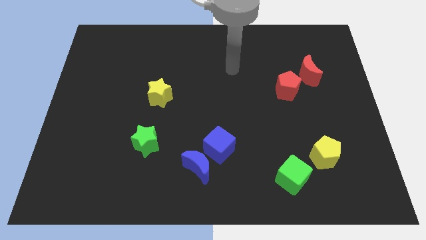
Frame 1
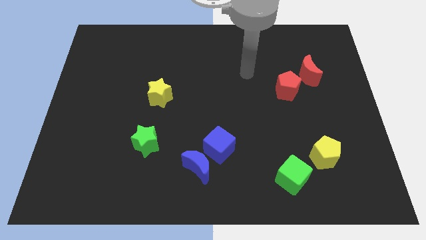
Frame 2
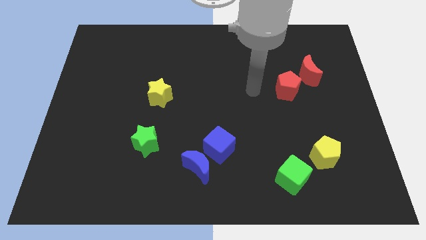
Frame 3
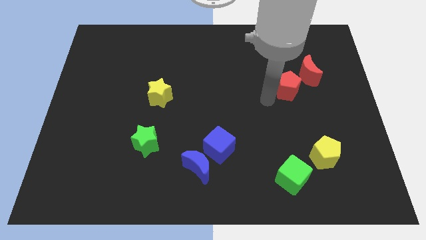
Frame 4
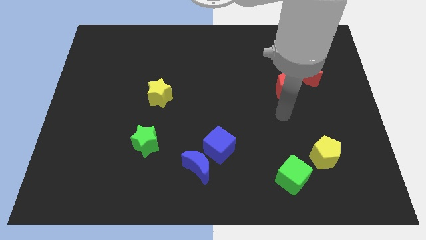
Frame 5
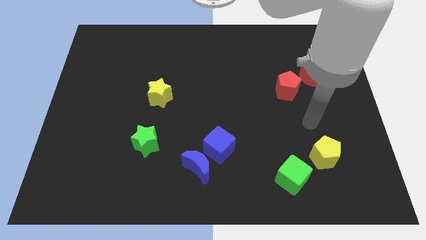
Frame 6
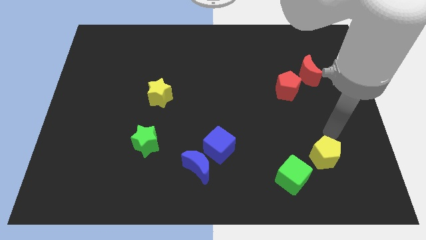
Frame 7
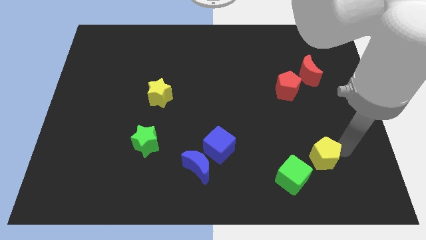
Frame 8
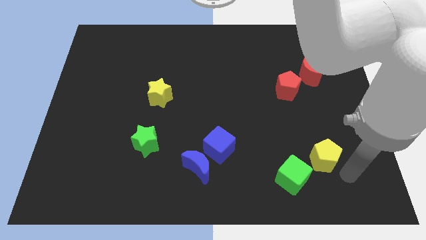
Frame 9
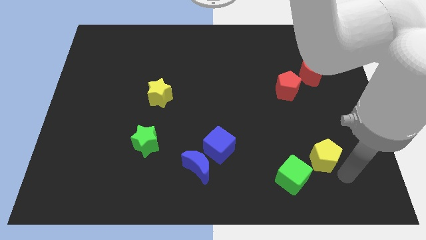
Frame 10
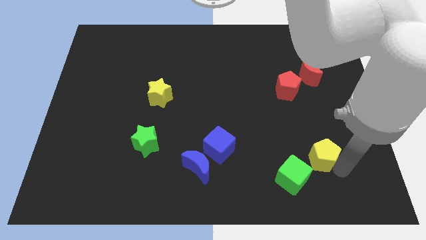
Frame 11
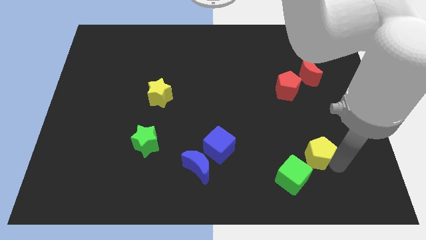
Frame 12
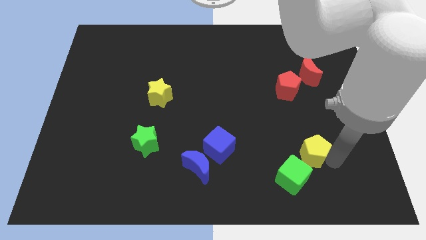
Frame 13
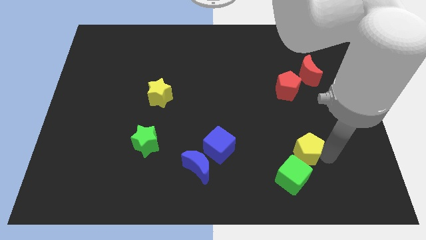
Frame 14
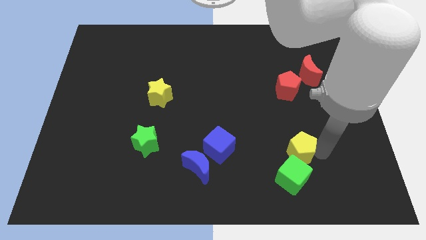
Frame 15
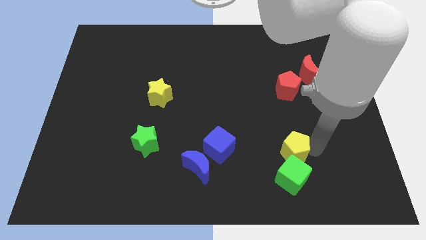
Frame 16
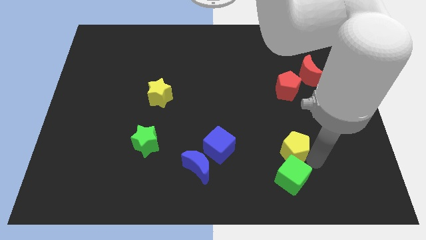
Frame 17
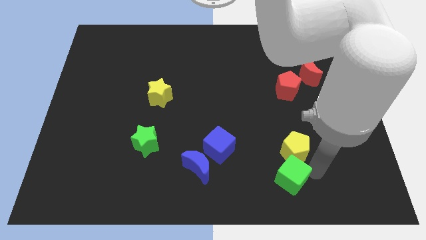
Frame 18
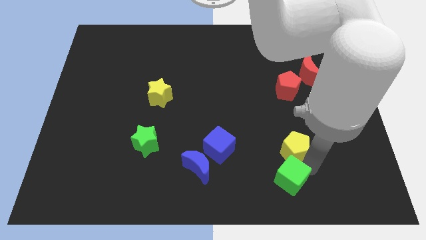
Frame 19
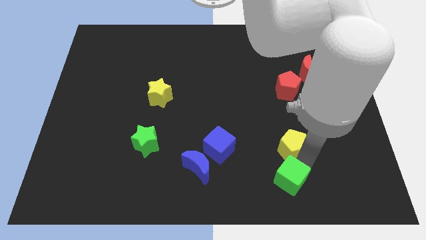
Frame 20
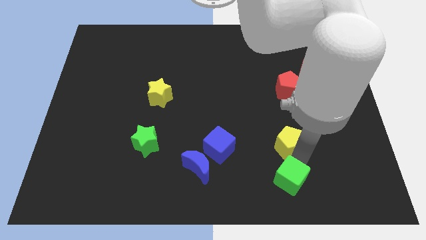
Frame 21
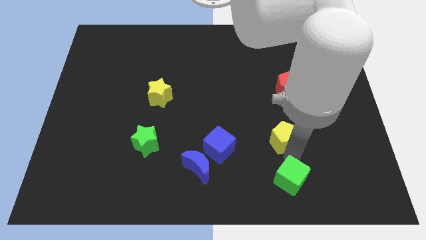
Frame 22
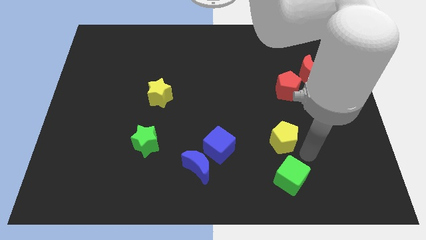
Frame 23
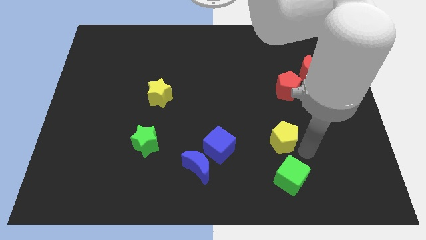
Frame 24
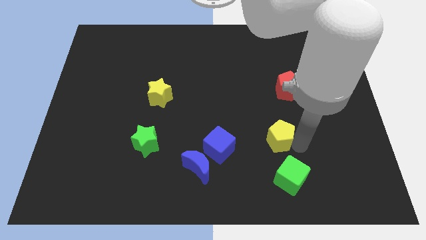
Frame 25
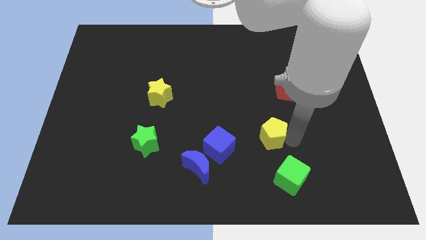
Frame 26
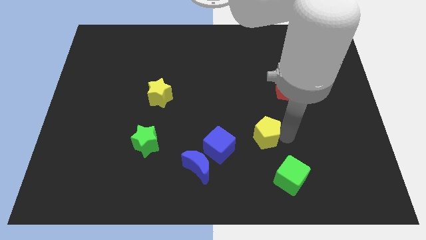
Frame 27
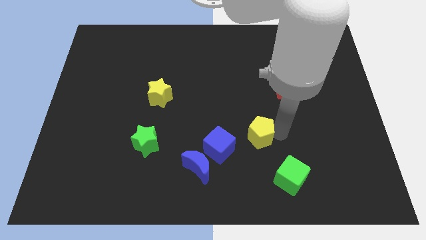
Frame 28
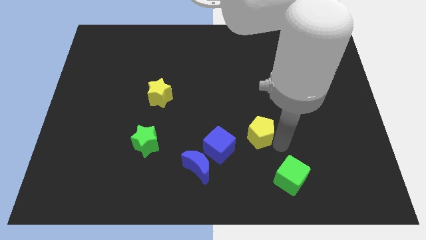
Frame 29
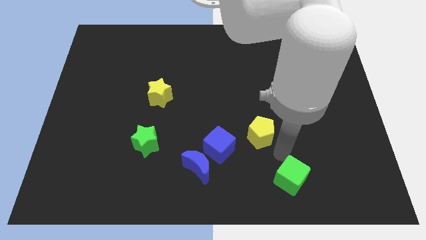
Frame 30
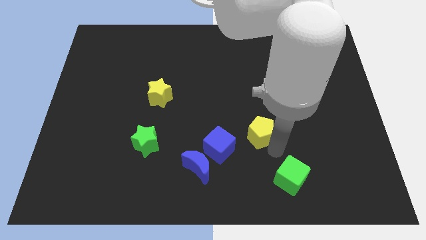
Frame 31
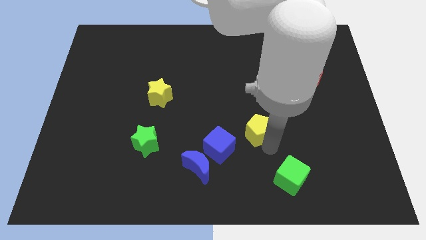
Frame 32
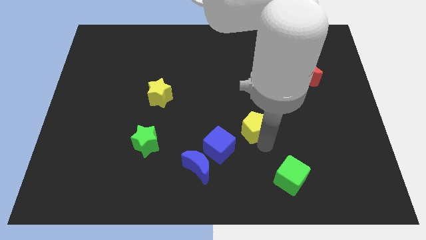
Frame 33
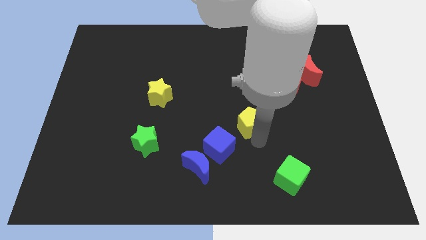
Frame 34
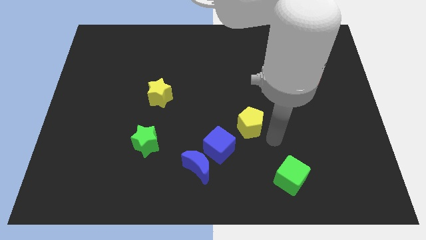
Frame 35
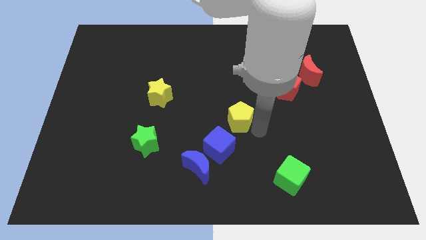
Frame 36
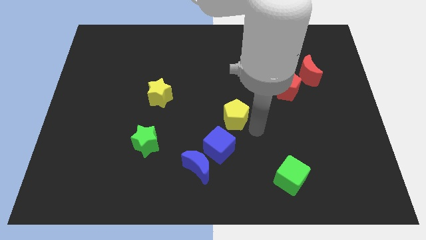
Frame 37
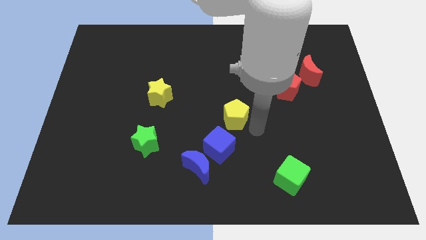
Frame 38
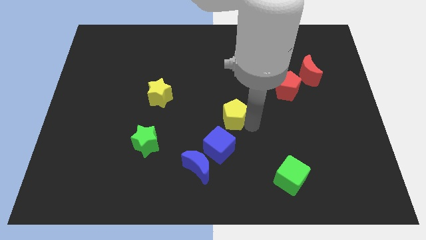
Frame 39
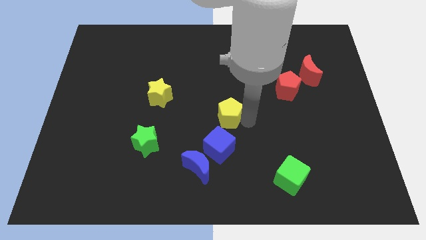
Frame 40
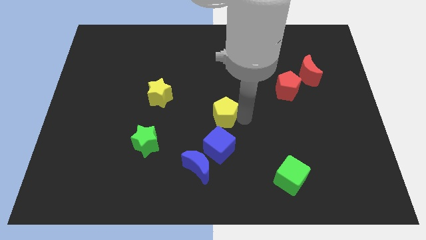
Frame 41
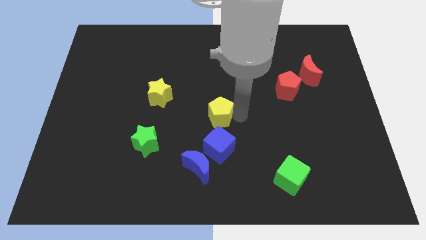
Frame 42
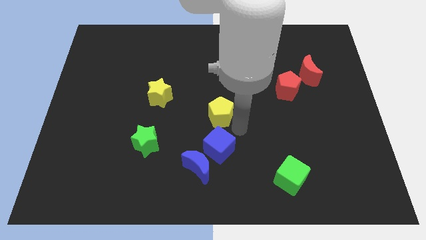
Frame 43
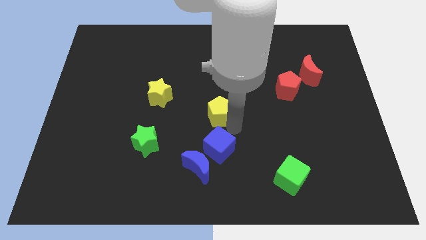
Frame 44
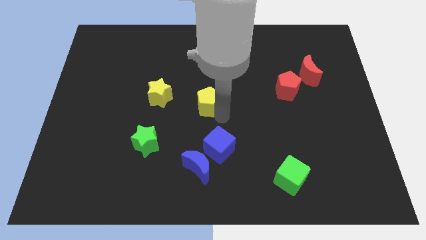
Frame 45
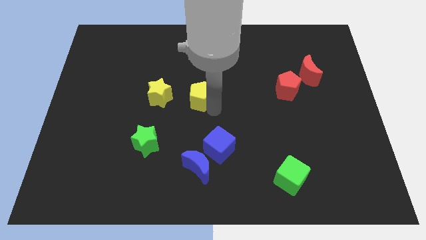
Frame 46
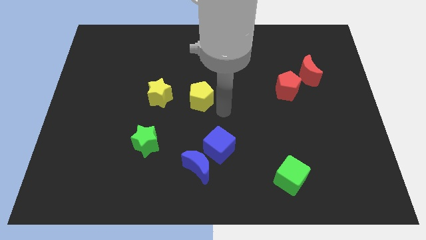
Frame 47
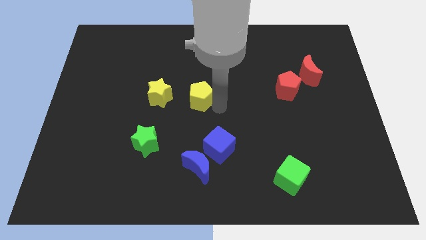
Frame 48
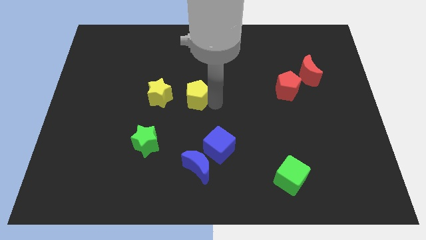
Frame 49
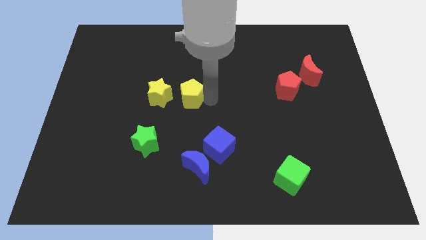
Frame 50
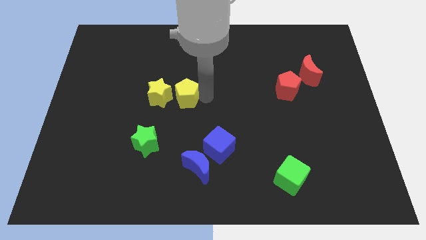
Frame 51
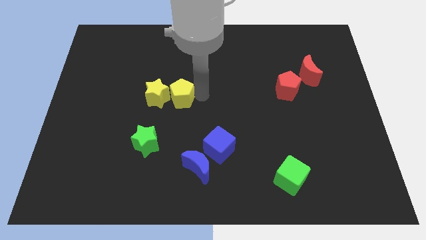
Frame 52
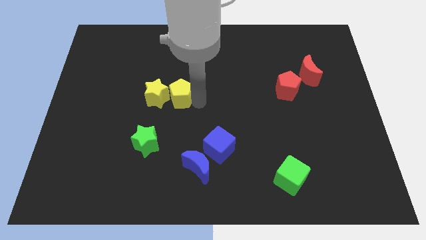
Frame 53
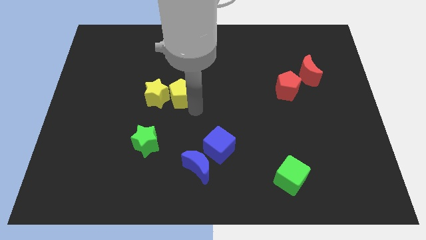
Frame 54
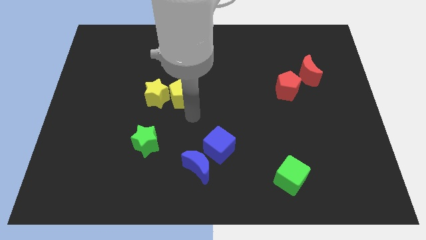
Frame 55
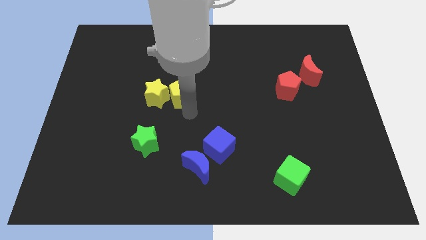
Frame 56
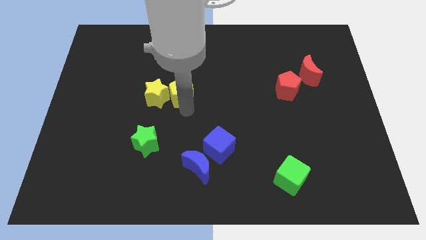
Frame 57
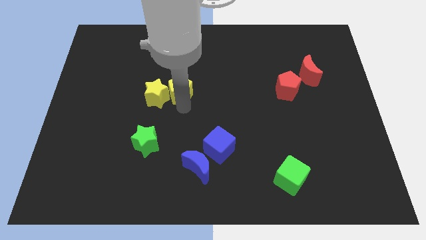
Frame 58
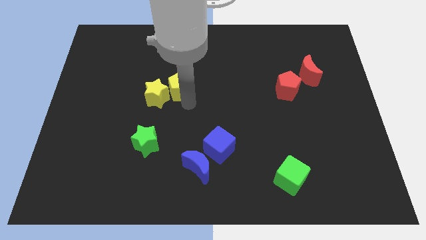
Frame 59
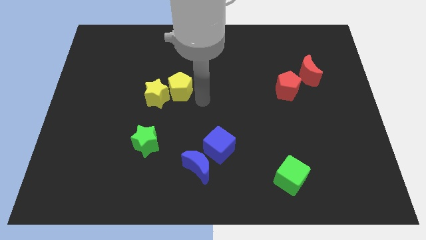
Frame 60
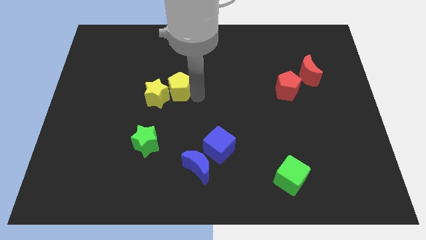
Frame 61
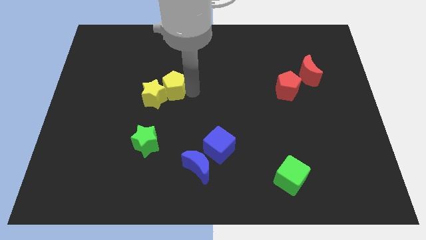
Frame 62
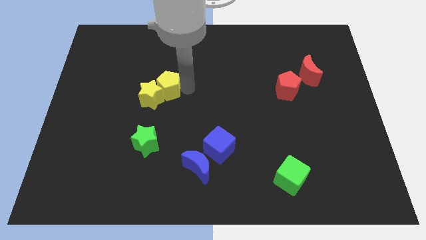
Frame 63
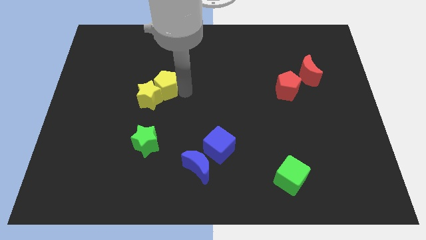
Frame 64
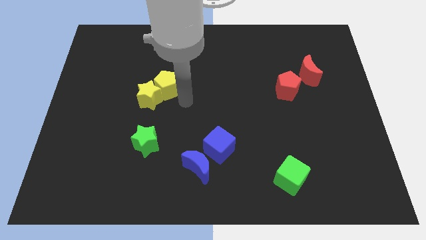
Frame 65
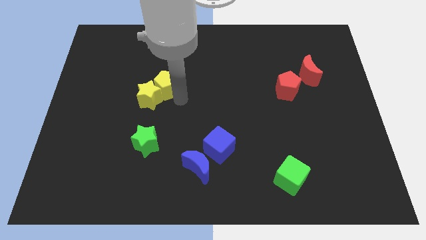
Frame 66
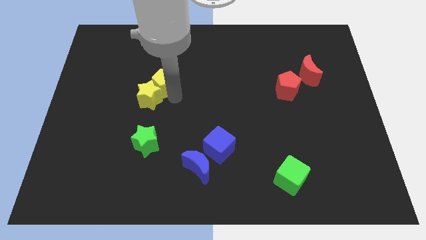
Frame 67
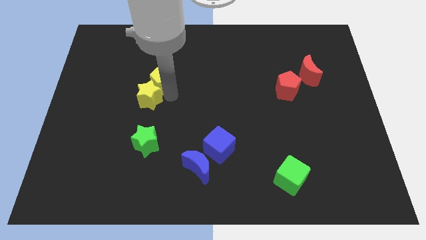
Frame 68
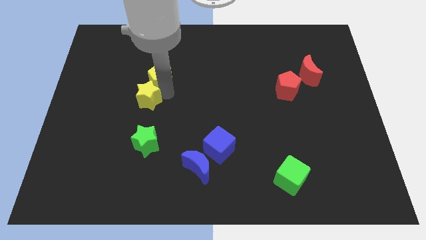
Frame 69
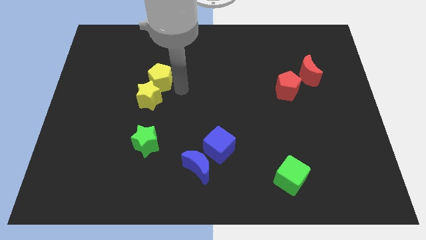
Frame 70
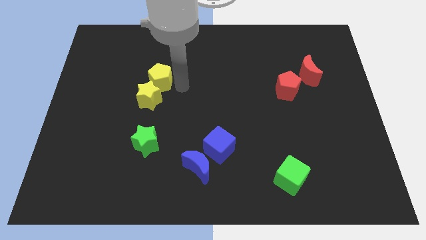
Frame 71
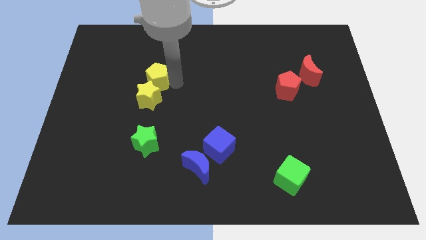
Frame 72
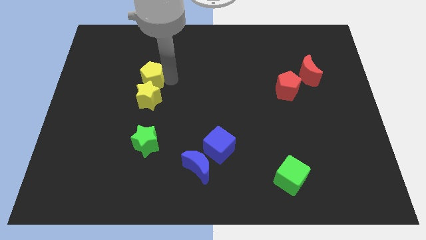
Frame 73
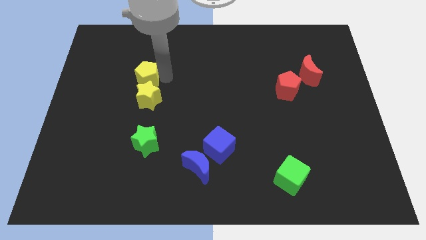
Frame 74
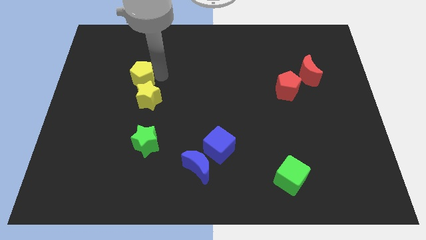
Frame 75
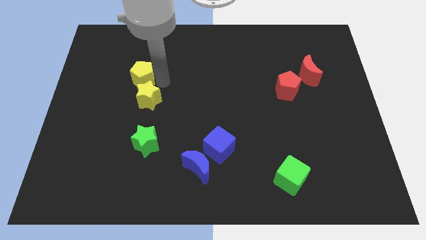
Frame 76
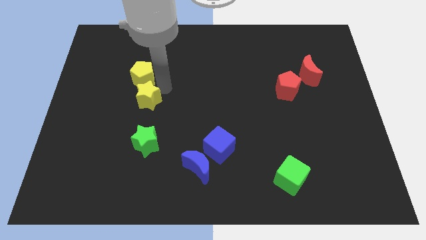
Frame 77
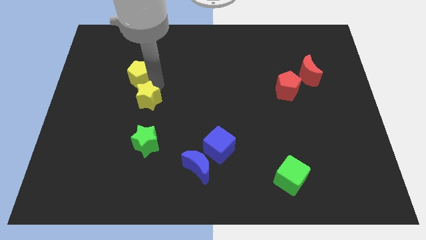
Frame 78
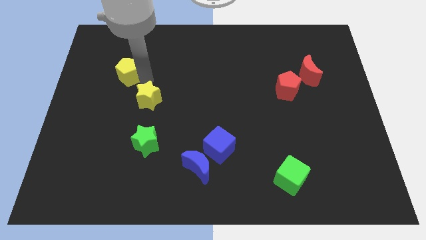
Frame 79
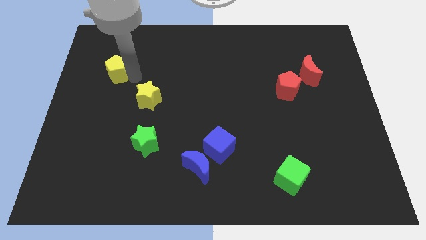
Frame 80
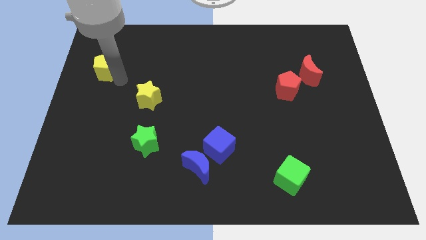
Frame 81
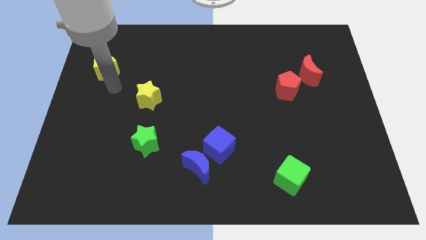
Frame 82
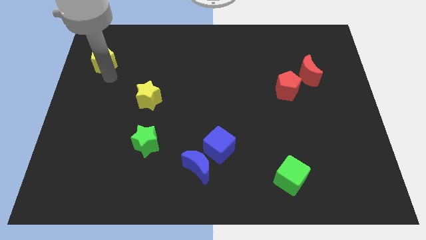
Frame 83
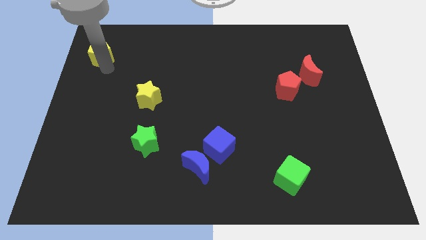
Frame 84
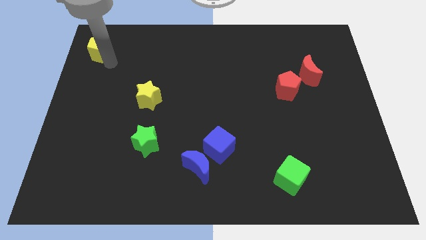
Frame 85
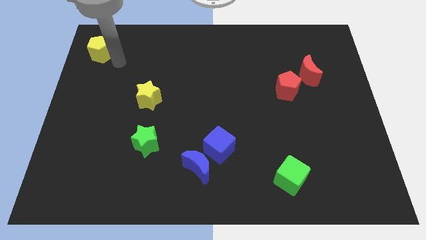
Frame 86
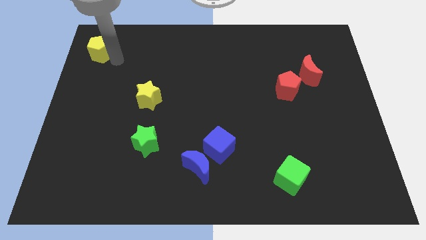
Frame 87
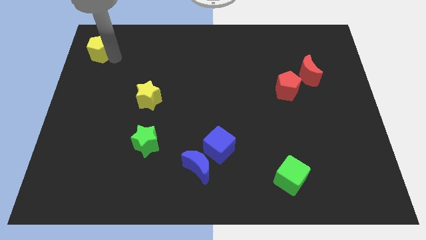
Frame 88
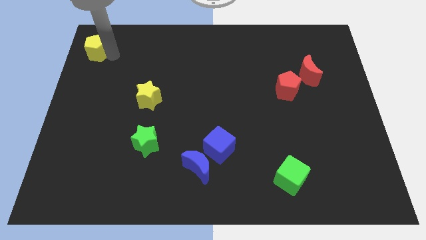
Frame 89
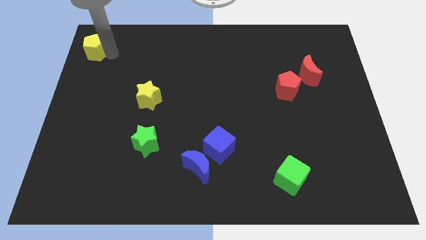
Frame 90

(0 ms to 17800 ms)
slide the yellow pentagon to the top left
